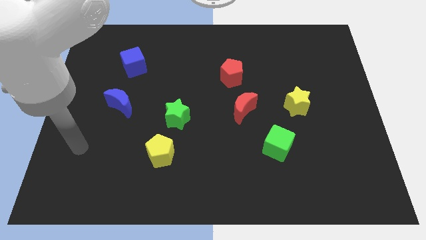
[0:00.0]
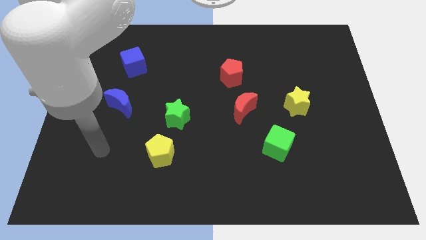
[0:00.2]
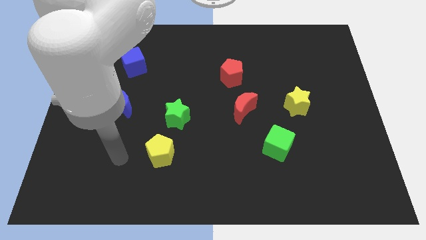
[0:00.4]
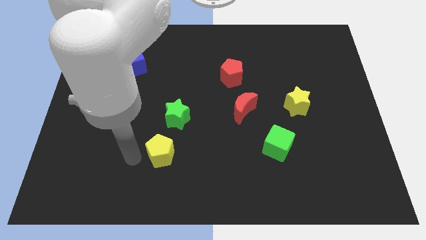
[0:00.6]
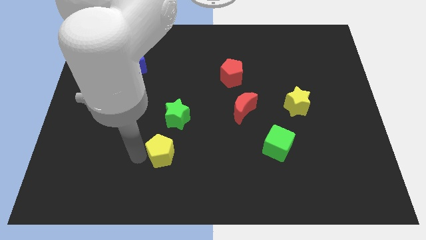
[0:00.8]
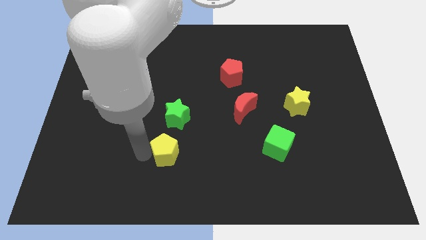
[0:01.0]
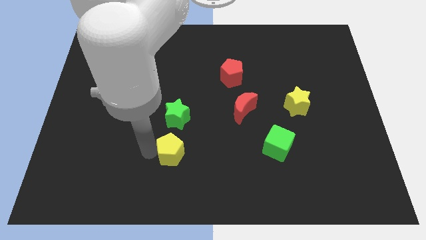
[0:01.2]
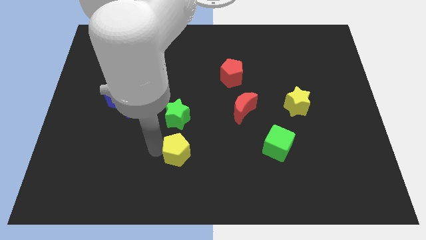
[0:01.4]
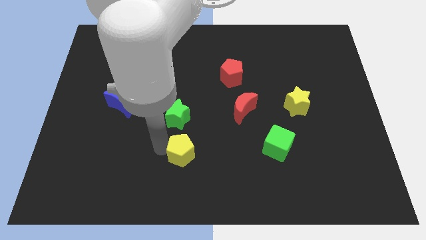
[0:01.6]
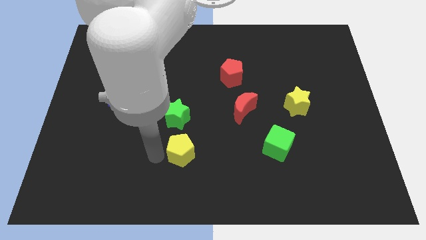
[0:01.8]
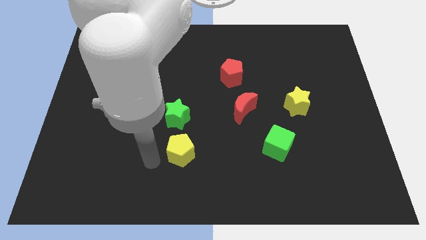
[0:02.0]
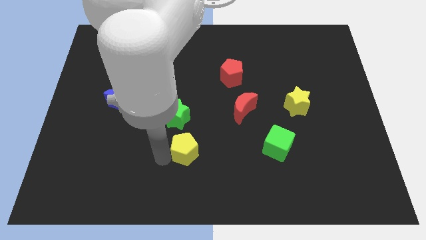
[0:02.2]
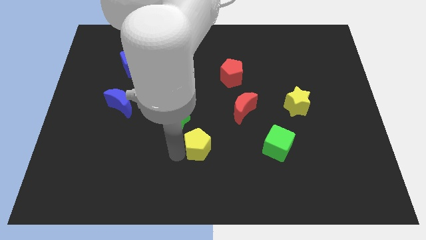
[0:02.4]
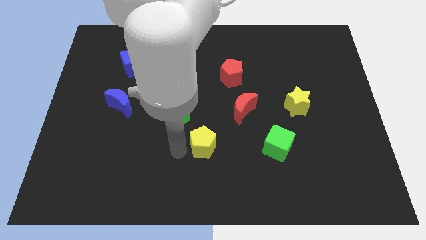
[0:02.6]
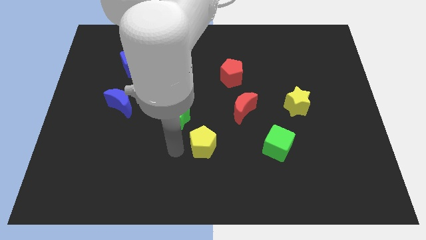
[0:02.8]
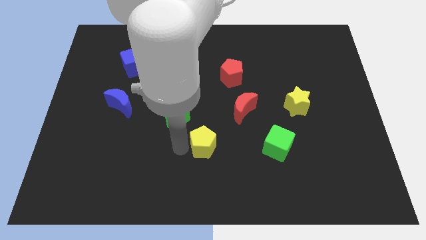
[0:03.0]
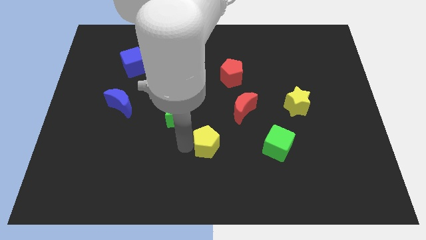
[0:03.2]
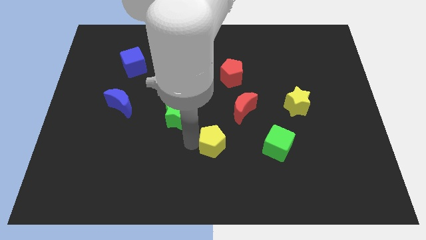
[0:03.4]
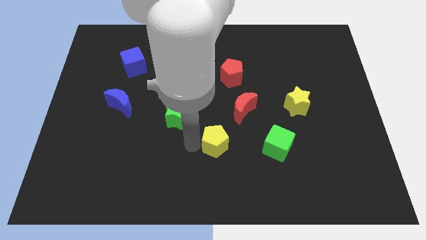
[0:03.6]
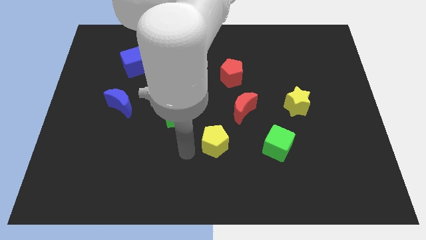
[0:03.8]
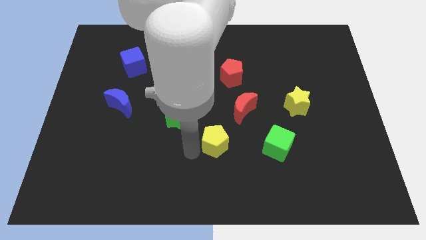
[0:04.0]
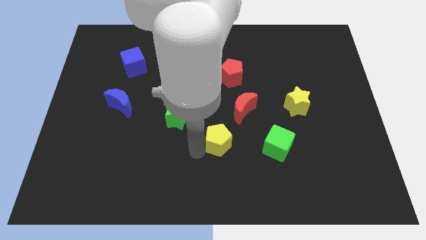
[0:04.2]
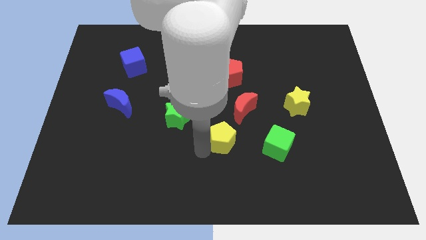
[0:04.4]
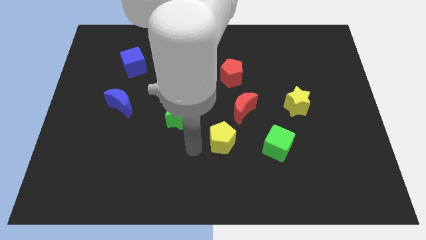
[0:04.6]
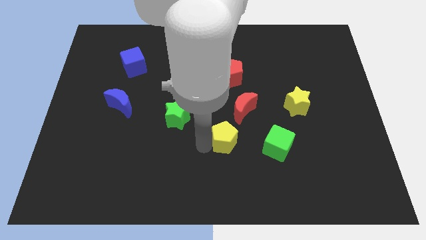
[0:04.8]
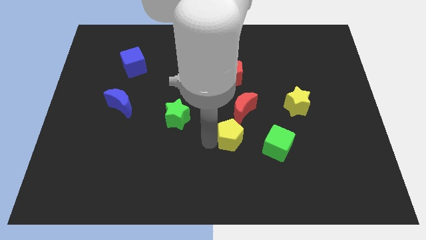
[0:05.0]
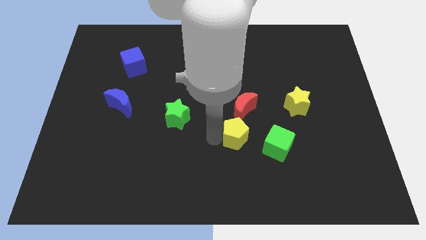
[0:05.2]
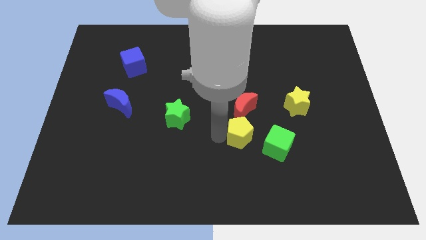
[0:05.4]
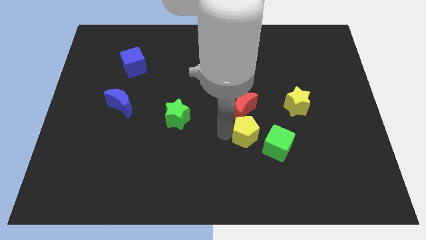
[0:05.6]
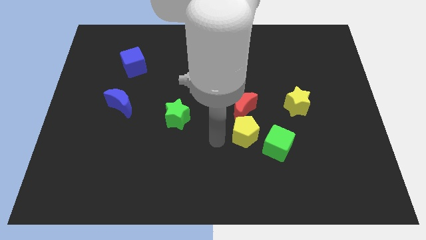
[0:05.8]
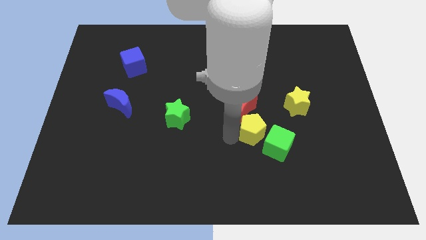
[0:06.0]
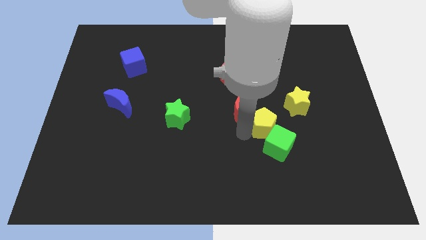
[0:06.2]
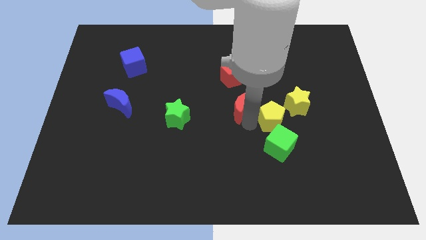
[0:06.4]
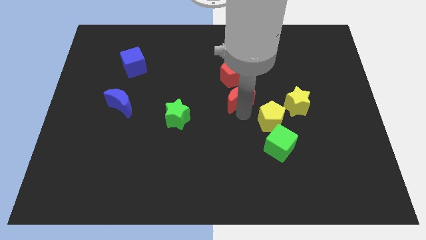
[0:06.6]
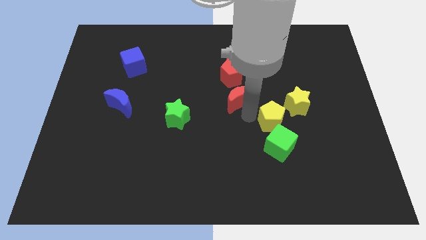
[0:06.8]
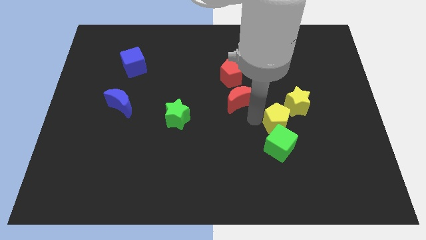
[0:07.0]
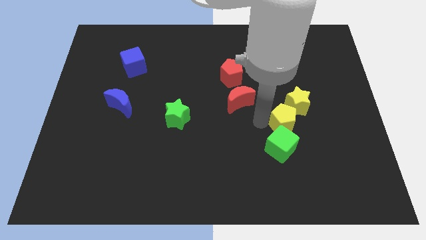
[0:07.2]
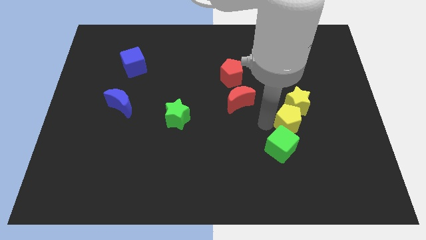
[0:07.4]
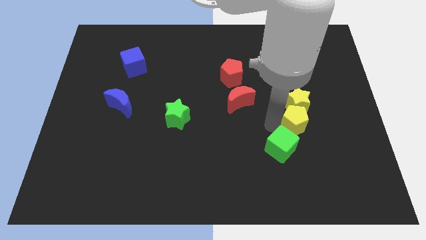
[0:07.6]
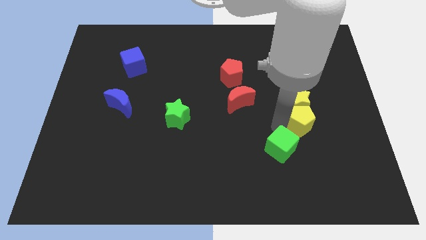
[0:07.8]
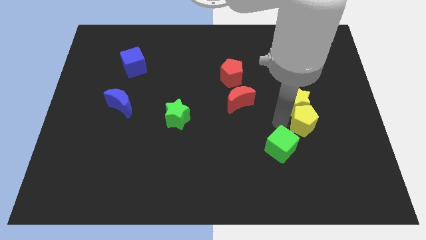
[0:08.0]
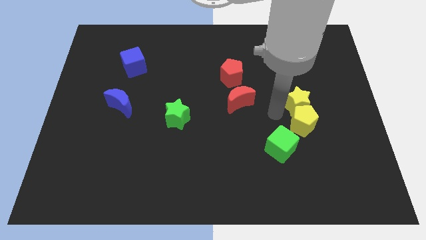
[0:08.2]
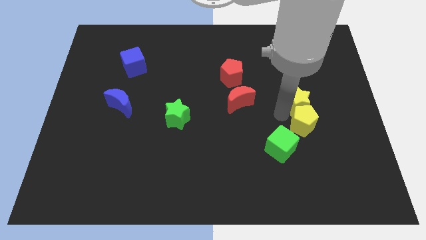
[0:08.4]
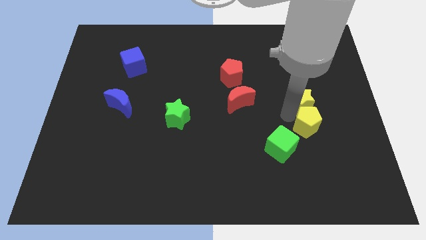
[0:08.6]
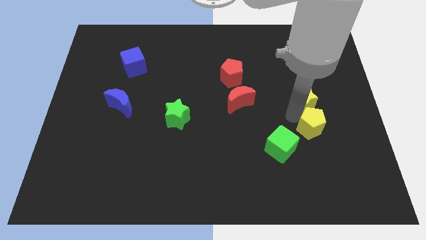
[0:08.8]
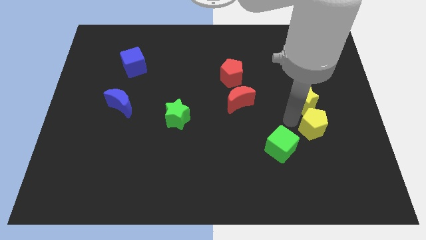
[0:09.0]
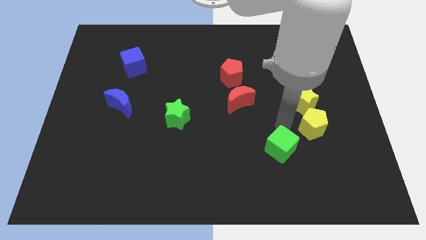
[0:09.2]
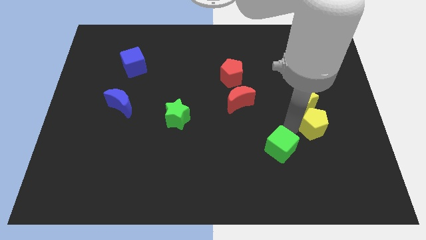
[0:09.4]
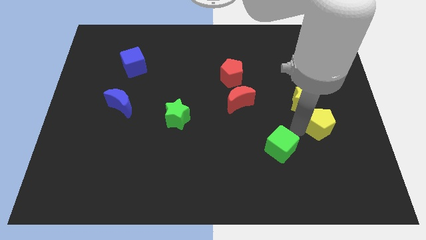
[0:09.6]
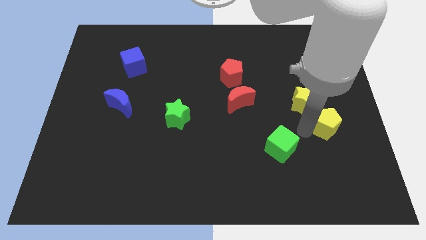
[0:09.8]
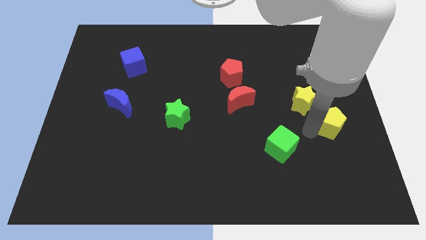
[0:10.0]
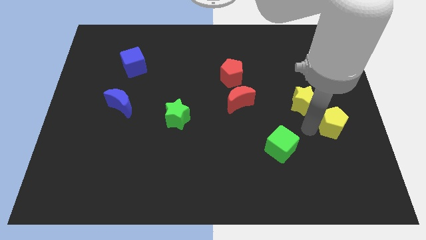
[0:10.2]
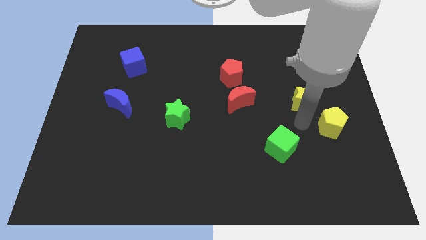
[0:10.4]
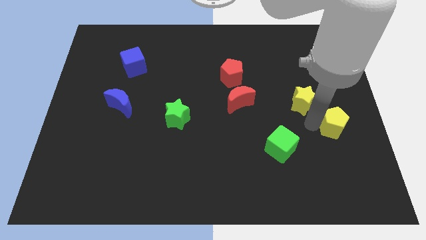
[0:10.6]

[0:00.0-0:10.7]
push the yellow pentagon to the center right

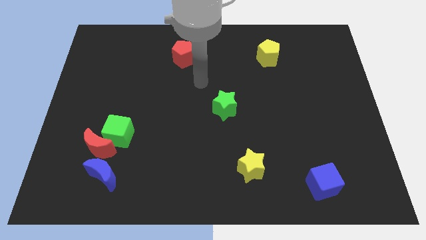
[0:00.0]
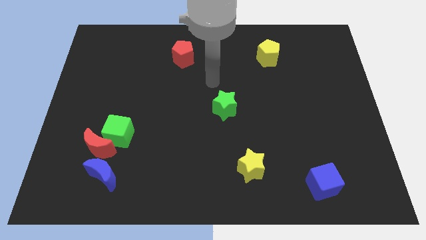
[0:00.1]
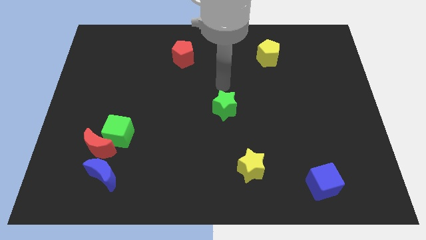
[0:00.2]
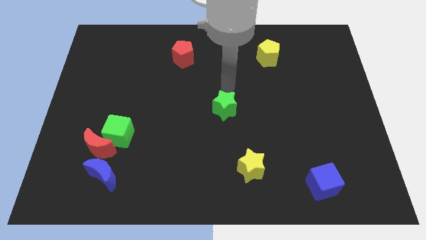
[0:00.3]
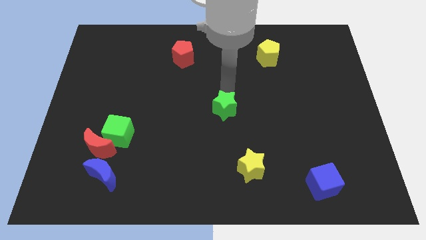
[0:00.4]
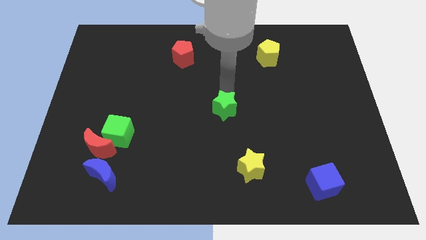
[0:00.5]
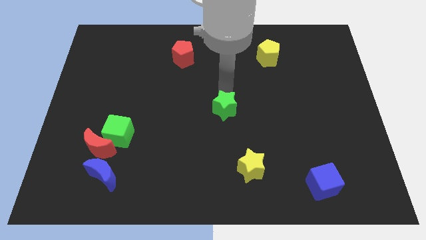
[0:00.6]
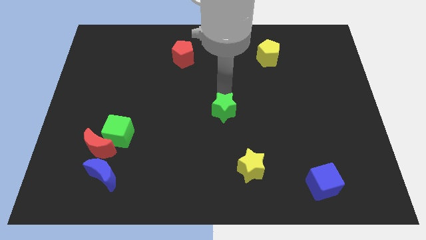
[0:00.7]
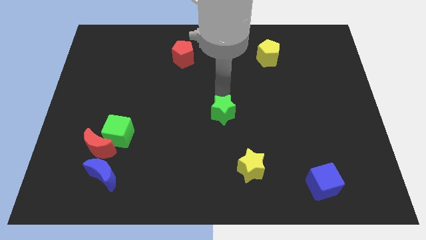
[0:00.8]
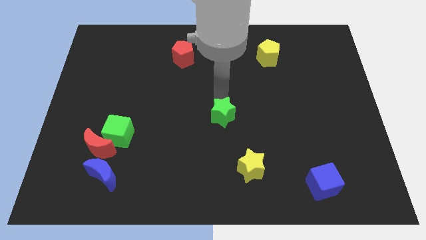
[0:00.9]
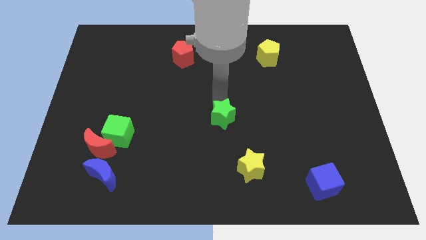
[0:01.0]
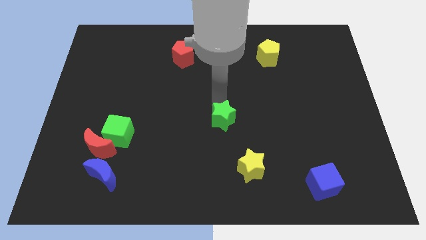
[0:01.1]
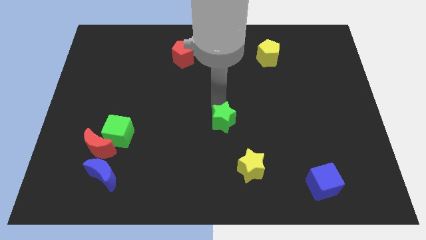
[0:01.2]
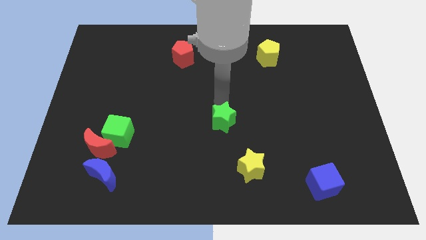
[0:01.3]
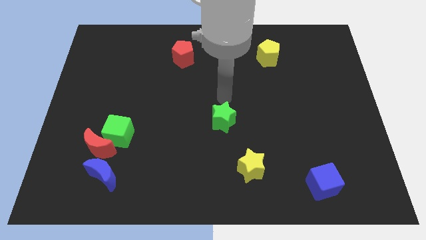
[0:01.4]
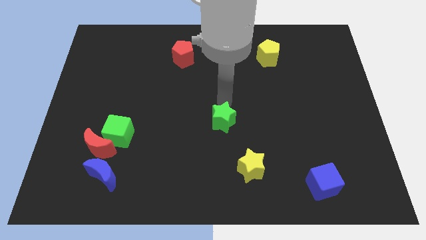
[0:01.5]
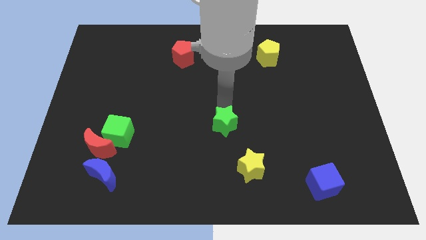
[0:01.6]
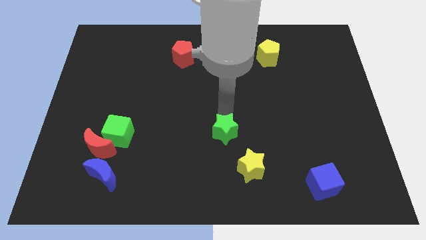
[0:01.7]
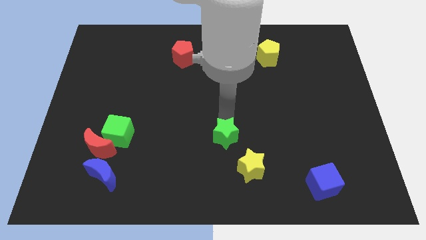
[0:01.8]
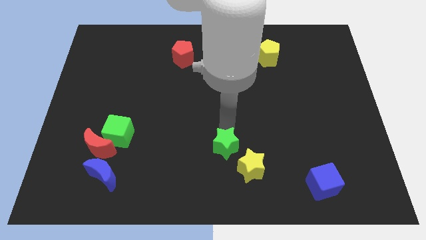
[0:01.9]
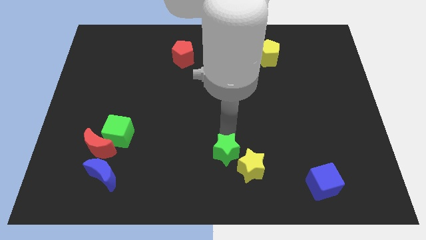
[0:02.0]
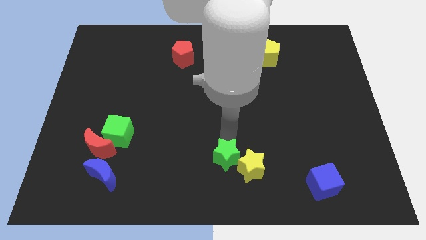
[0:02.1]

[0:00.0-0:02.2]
move the green star to the bottom side
